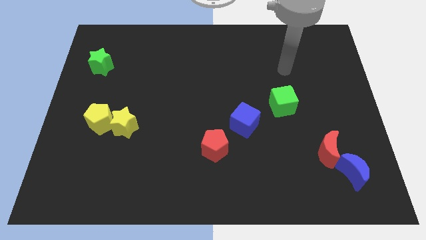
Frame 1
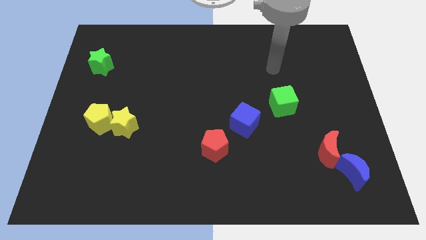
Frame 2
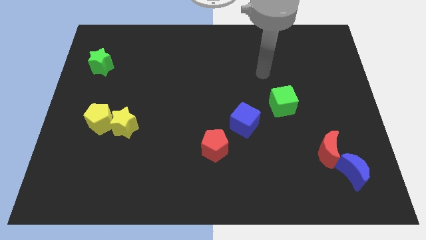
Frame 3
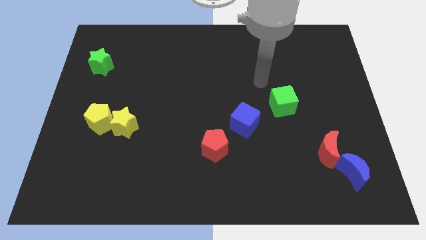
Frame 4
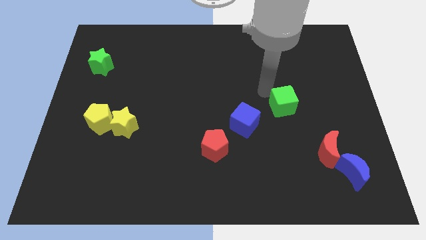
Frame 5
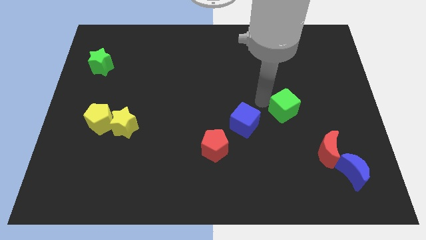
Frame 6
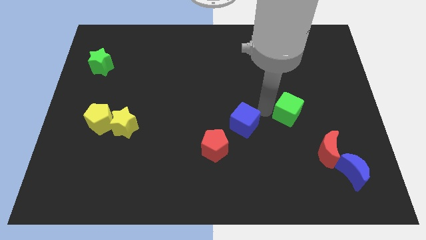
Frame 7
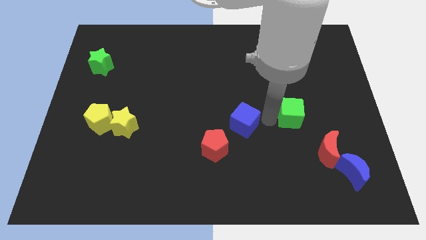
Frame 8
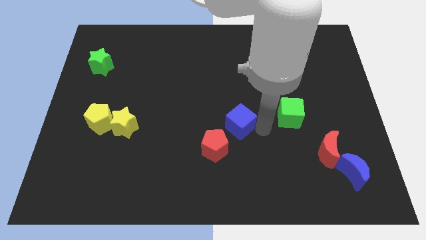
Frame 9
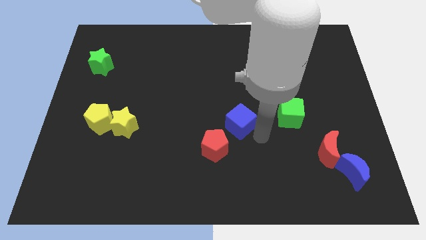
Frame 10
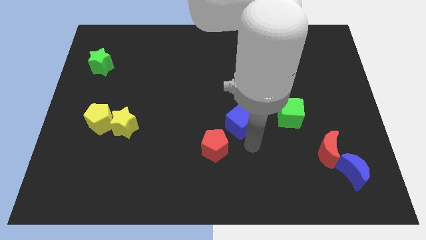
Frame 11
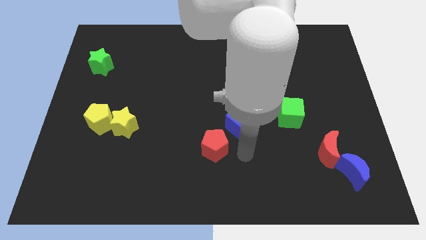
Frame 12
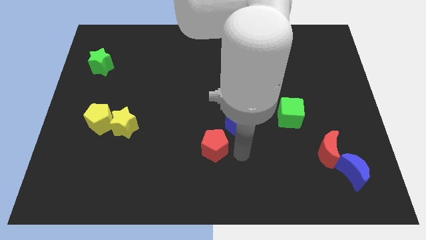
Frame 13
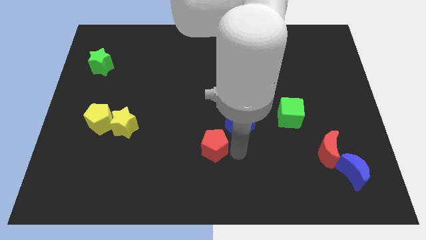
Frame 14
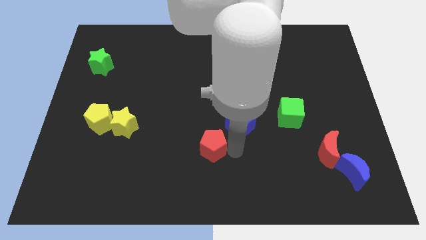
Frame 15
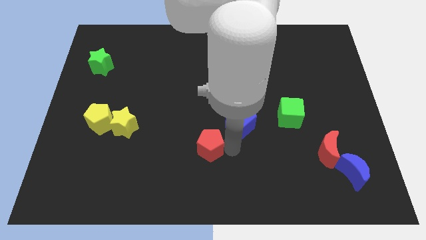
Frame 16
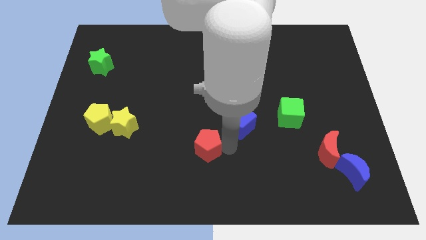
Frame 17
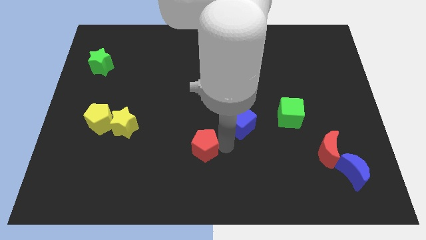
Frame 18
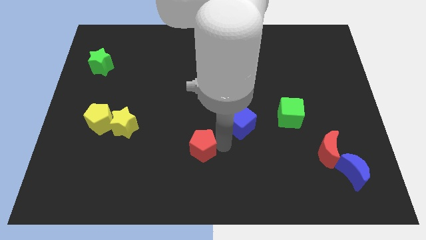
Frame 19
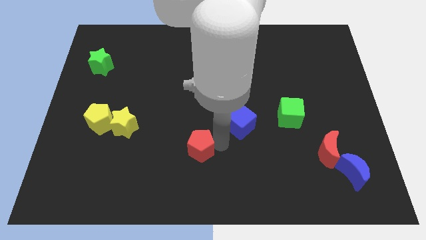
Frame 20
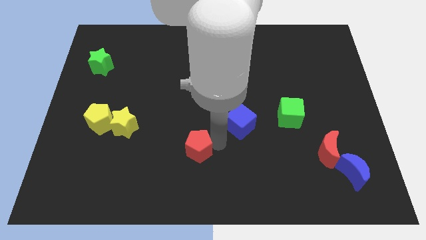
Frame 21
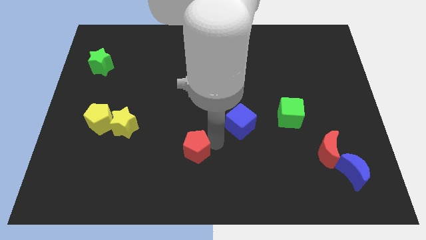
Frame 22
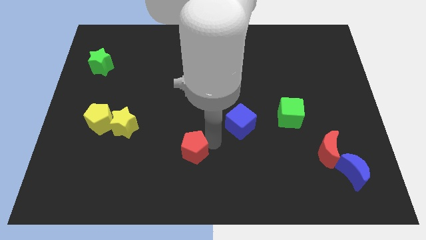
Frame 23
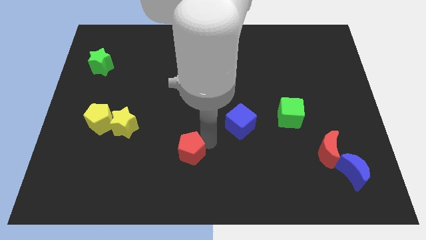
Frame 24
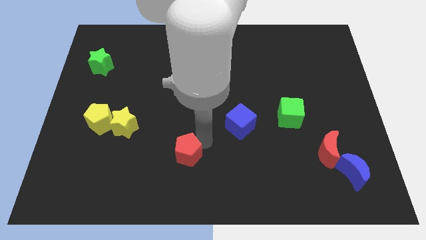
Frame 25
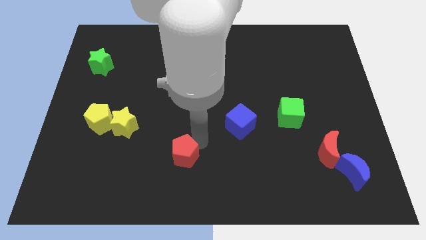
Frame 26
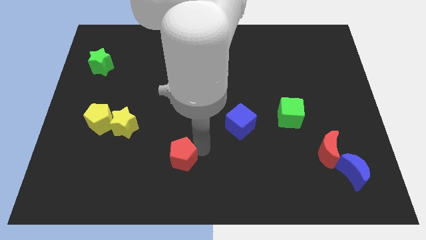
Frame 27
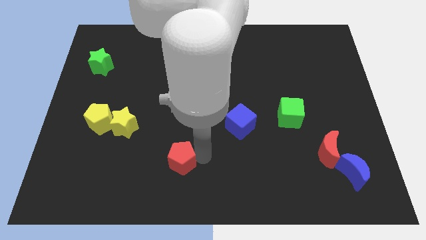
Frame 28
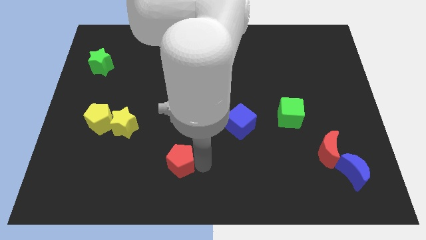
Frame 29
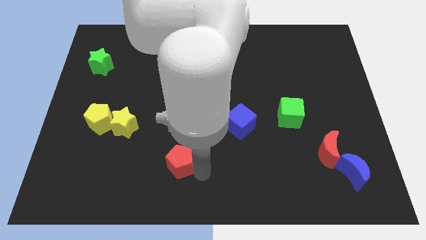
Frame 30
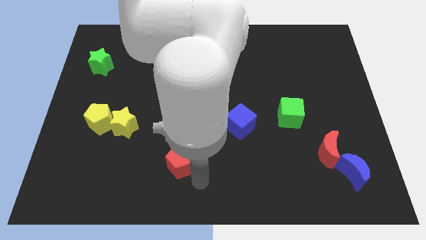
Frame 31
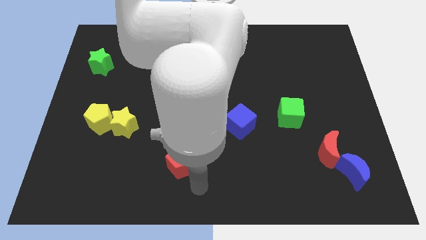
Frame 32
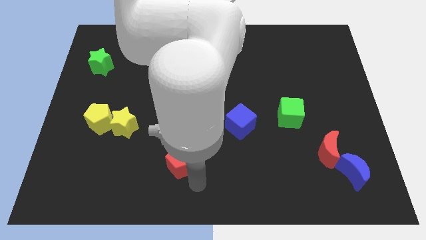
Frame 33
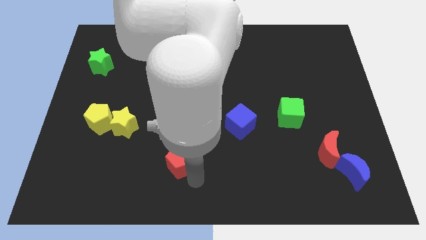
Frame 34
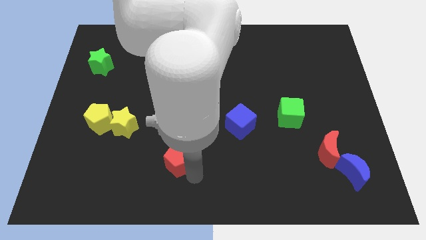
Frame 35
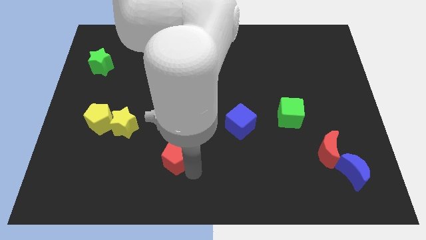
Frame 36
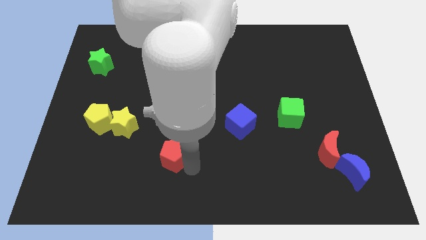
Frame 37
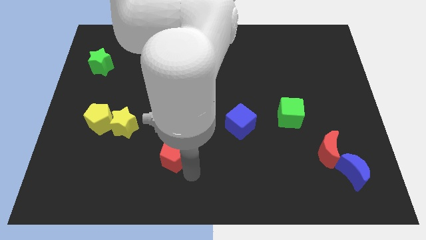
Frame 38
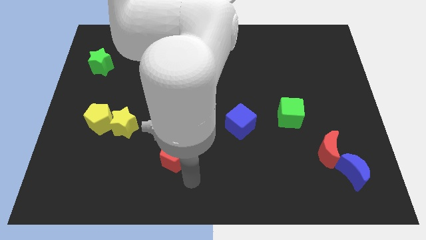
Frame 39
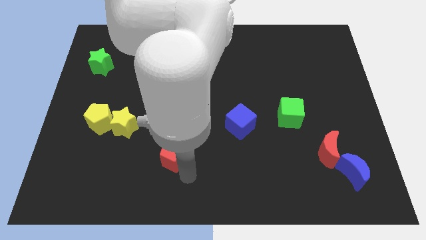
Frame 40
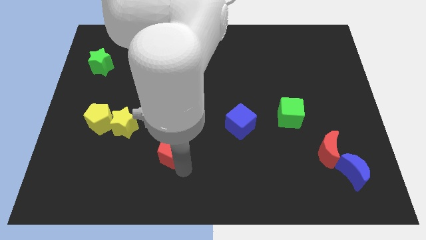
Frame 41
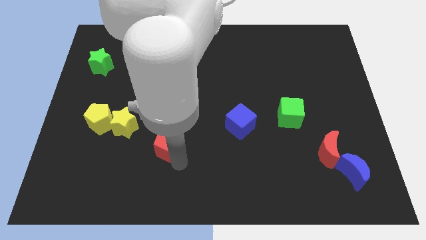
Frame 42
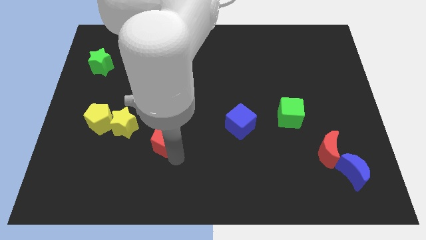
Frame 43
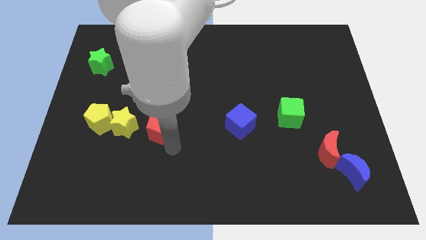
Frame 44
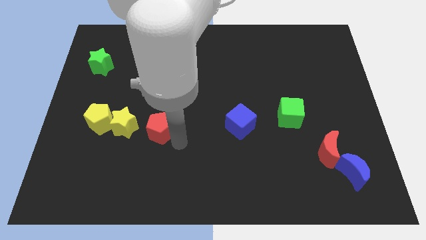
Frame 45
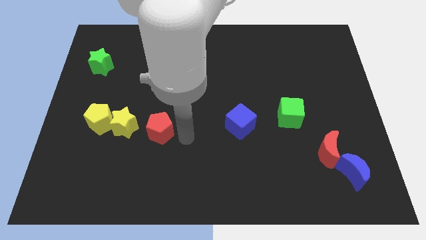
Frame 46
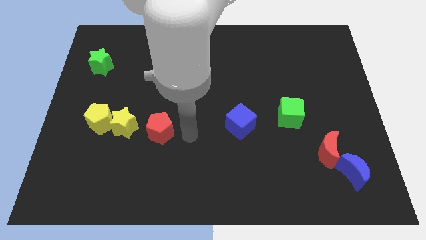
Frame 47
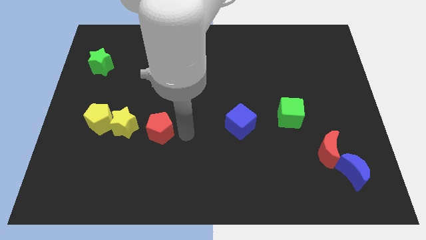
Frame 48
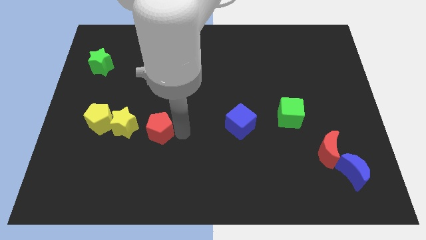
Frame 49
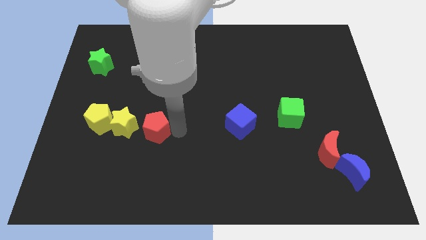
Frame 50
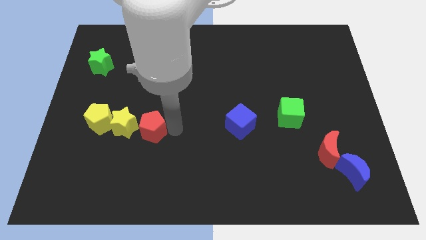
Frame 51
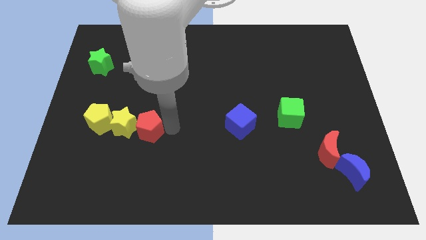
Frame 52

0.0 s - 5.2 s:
slide the red pentagon close to the yellow star

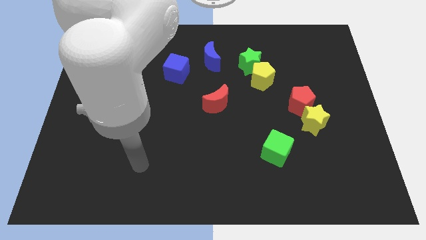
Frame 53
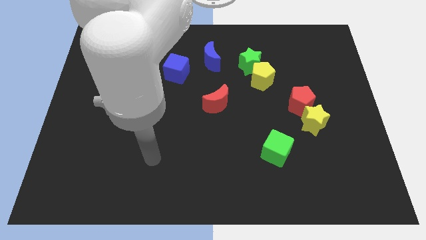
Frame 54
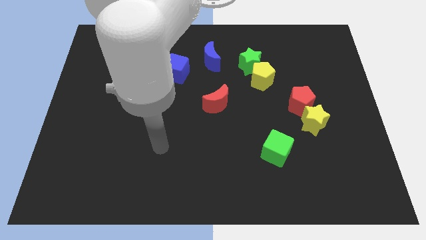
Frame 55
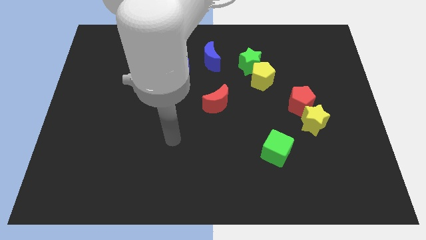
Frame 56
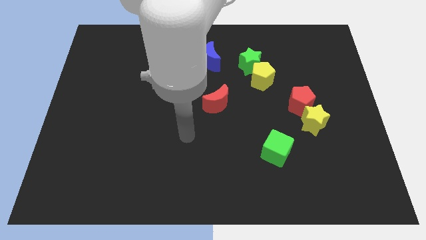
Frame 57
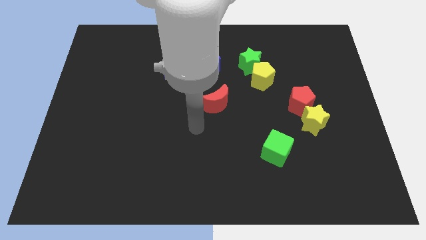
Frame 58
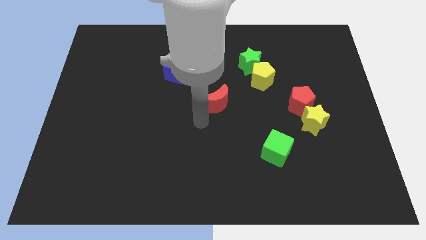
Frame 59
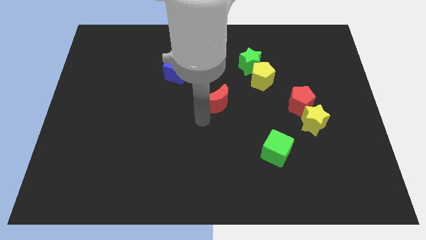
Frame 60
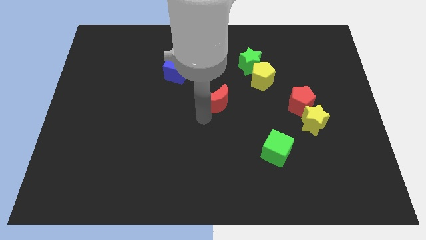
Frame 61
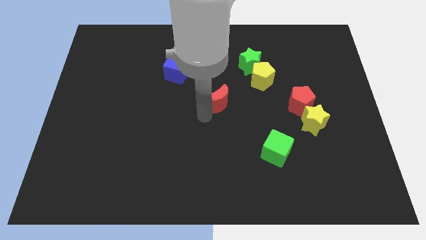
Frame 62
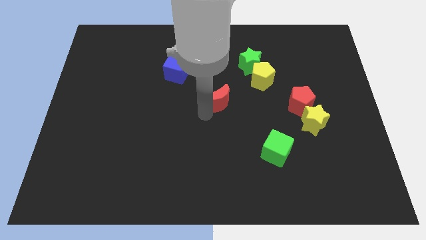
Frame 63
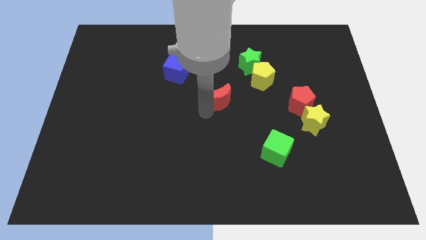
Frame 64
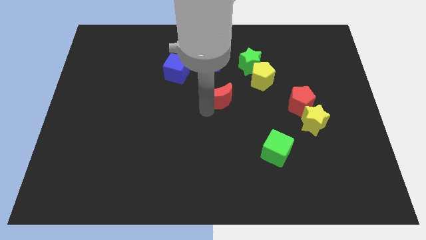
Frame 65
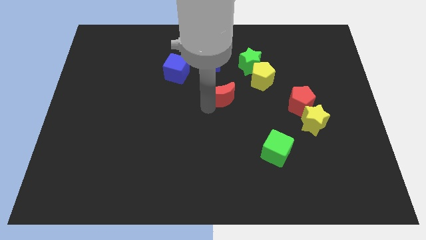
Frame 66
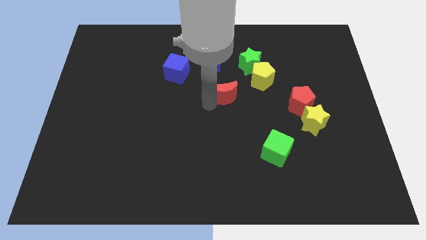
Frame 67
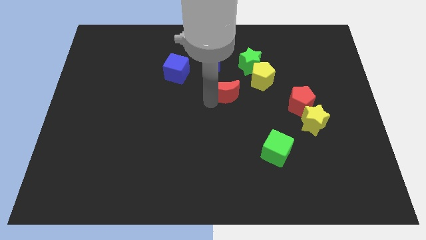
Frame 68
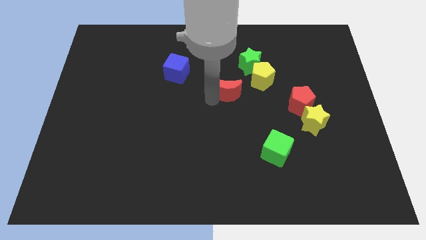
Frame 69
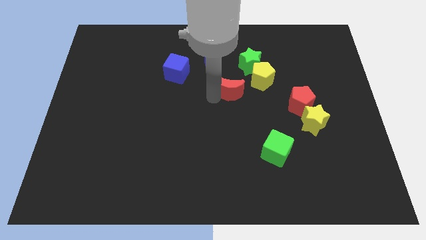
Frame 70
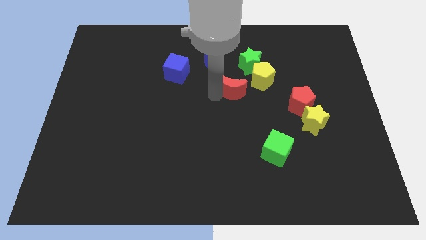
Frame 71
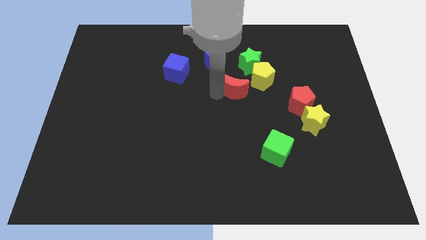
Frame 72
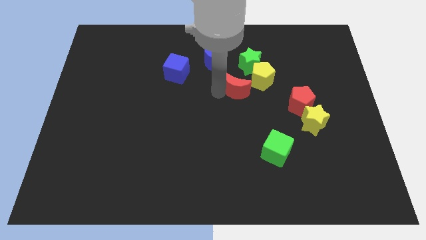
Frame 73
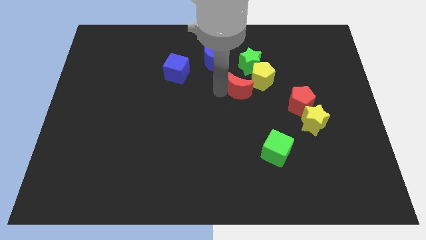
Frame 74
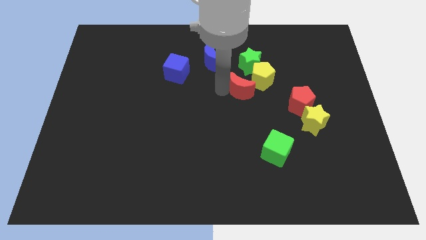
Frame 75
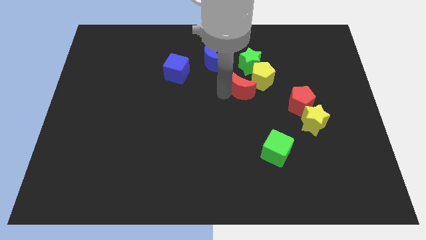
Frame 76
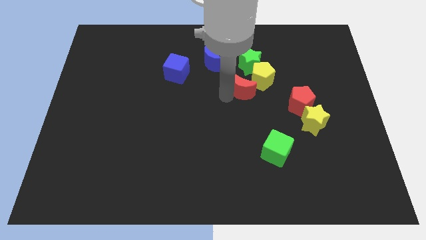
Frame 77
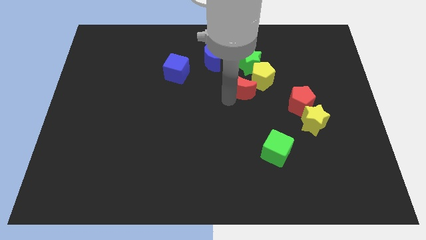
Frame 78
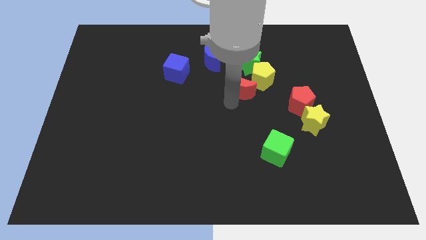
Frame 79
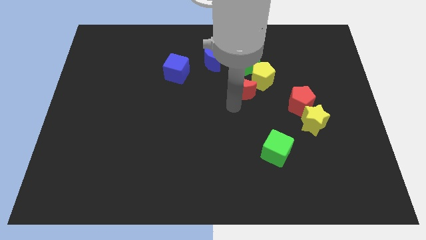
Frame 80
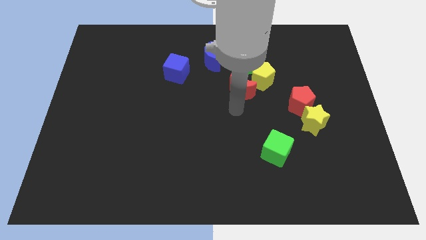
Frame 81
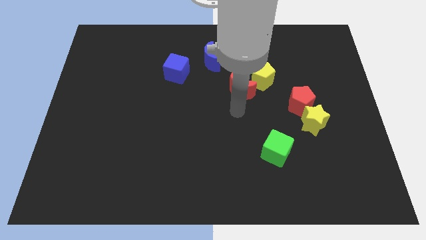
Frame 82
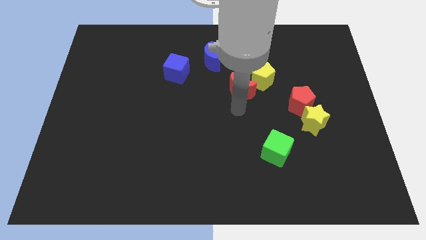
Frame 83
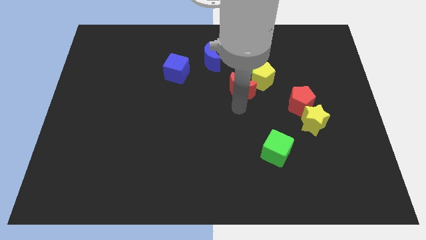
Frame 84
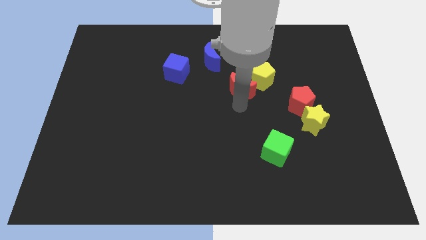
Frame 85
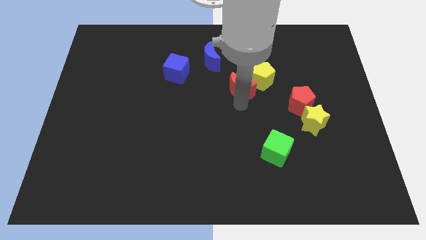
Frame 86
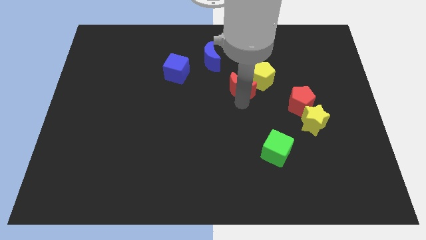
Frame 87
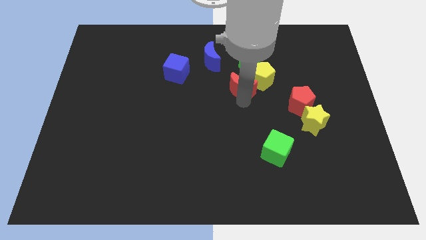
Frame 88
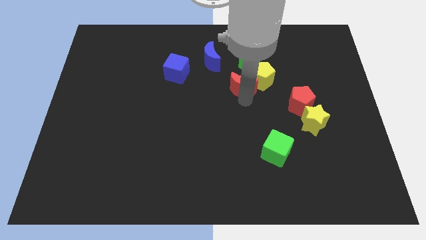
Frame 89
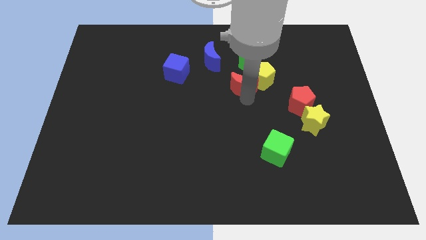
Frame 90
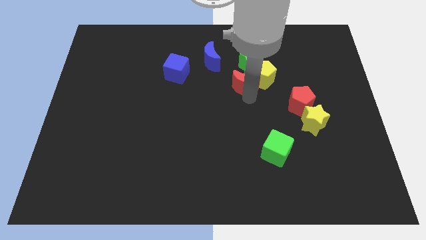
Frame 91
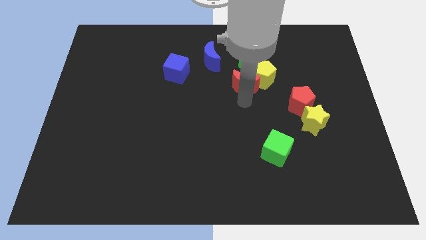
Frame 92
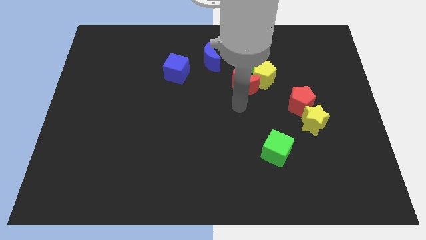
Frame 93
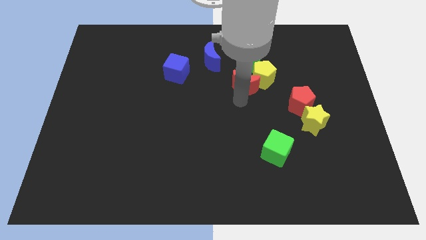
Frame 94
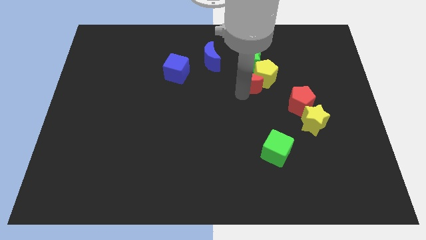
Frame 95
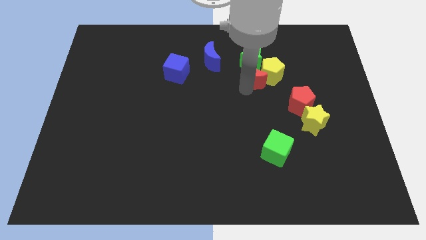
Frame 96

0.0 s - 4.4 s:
push the red moon next to the green star
